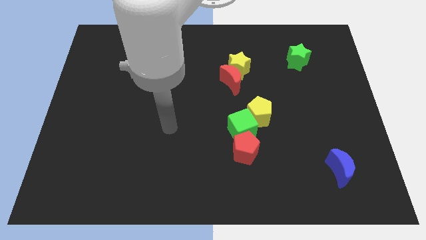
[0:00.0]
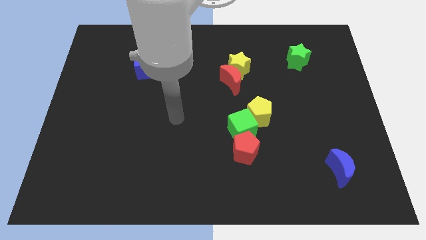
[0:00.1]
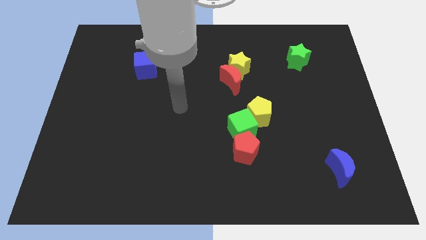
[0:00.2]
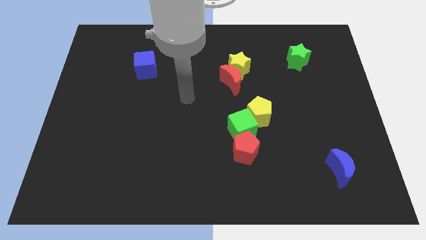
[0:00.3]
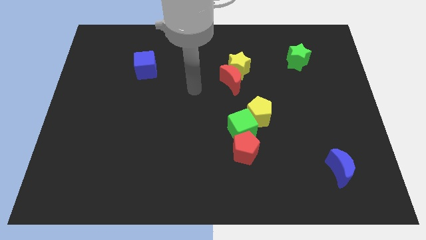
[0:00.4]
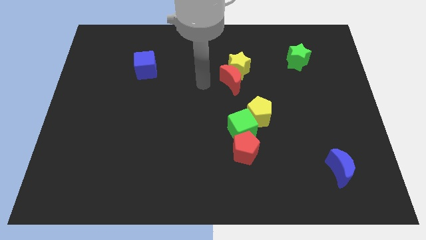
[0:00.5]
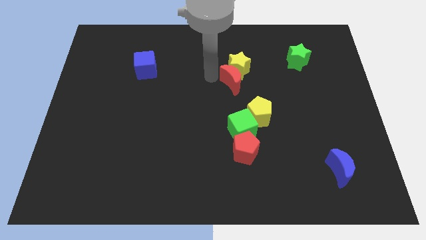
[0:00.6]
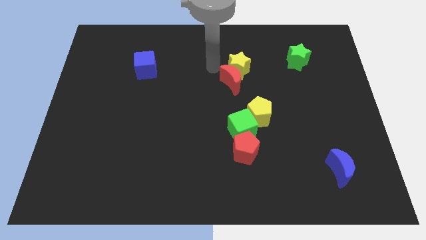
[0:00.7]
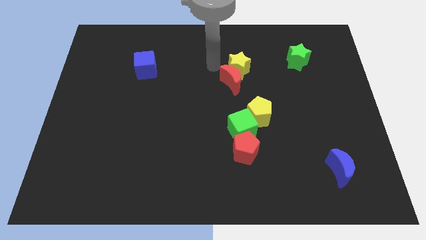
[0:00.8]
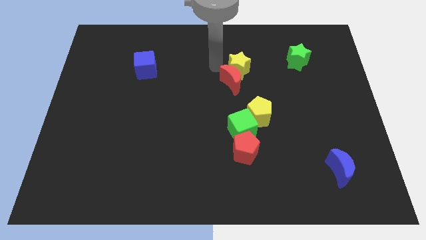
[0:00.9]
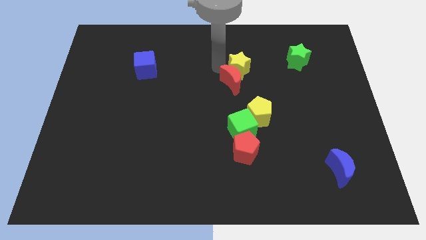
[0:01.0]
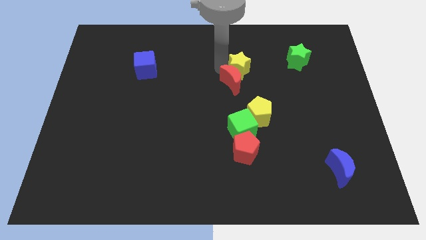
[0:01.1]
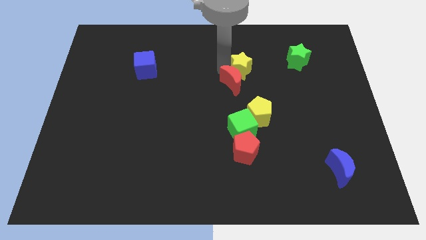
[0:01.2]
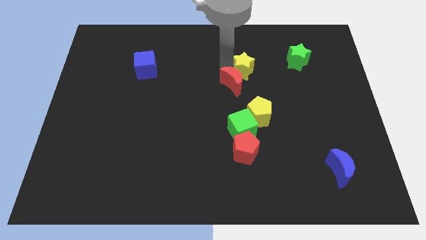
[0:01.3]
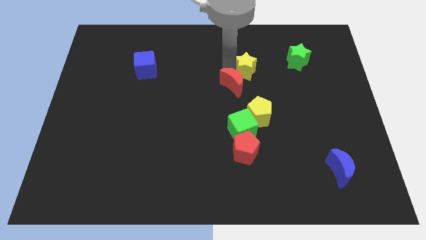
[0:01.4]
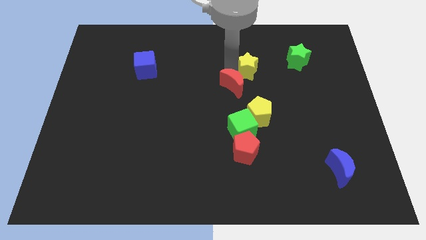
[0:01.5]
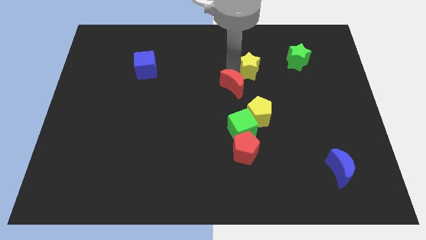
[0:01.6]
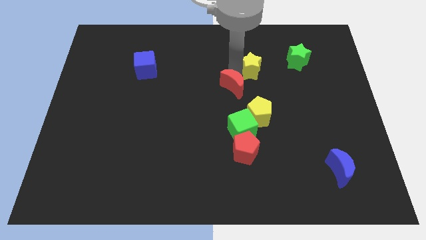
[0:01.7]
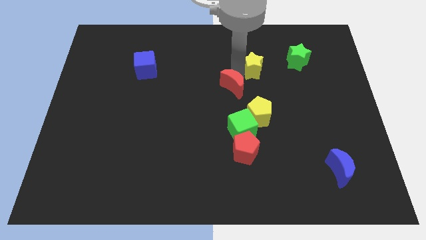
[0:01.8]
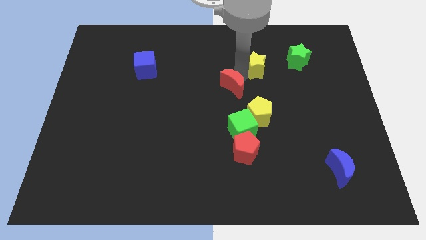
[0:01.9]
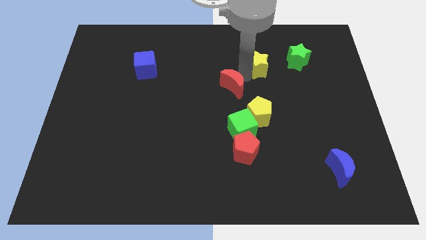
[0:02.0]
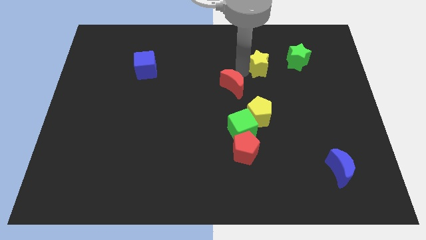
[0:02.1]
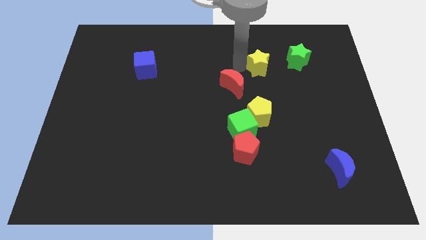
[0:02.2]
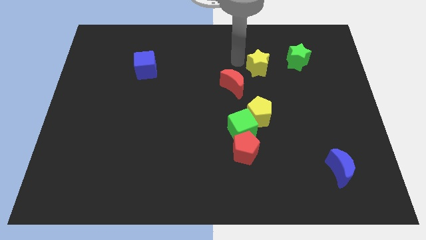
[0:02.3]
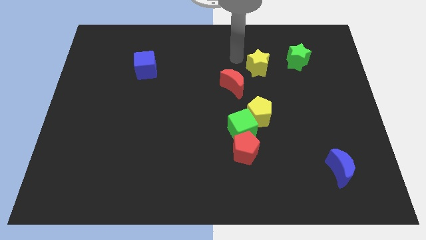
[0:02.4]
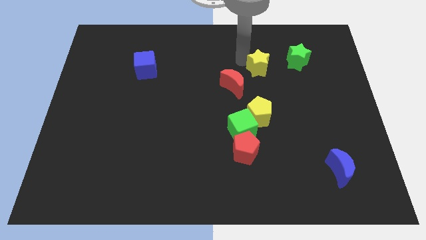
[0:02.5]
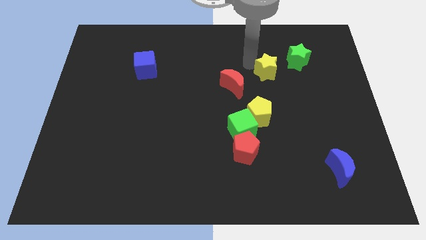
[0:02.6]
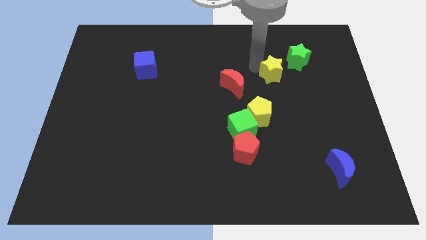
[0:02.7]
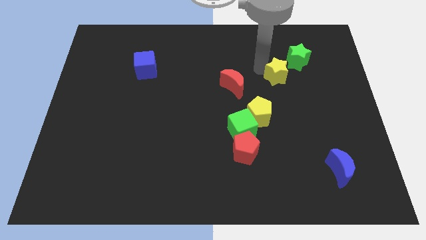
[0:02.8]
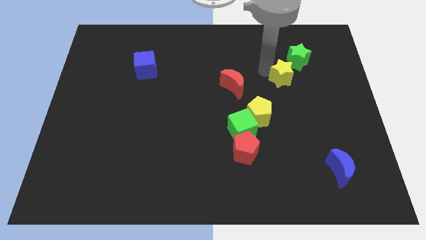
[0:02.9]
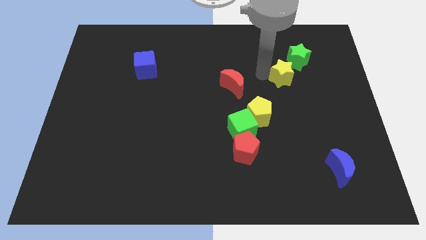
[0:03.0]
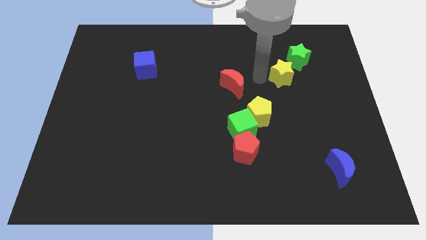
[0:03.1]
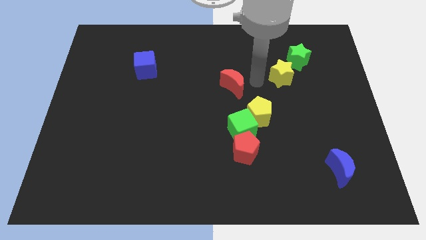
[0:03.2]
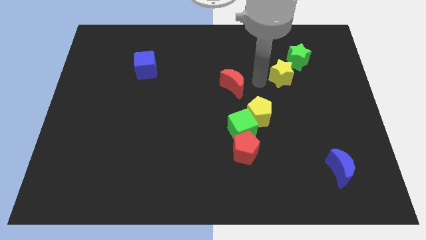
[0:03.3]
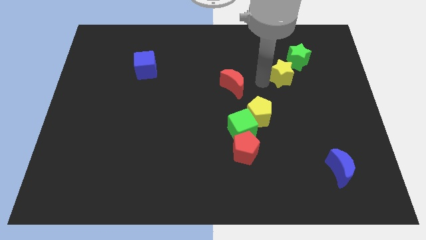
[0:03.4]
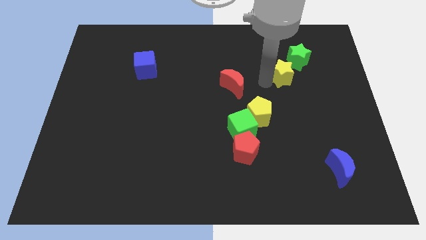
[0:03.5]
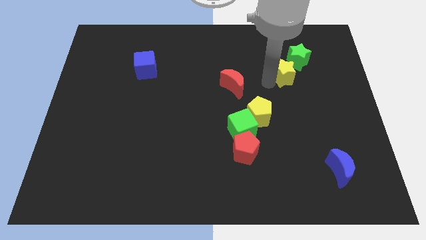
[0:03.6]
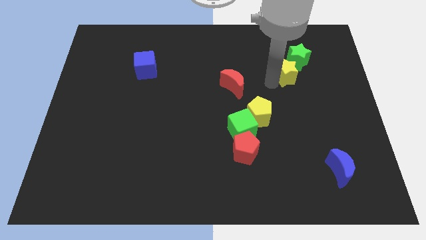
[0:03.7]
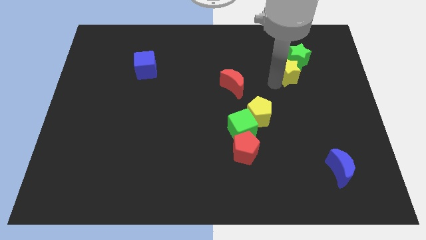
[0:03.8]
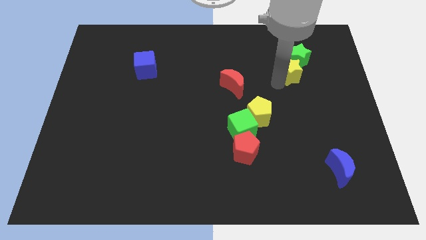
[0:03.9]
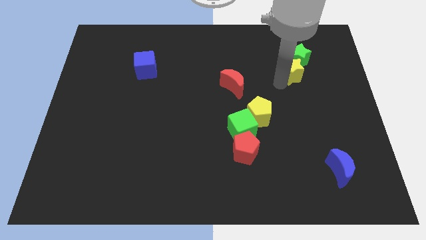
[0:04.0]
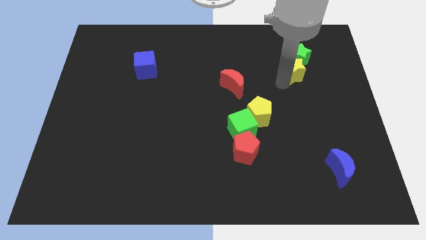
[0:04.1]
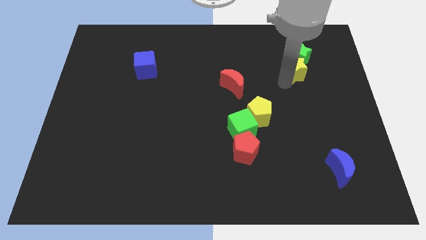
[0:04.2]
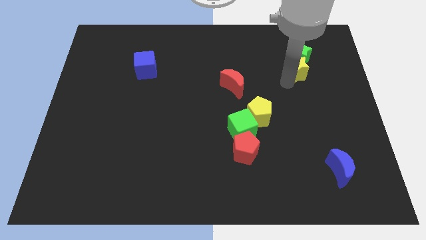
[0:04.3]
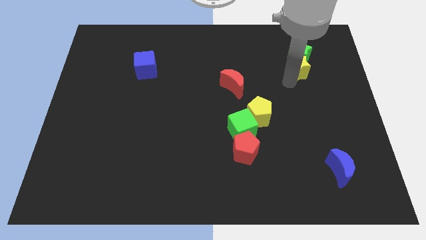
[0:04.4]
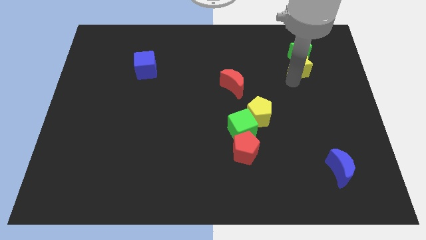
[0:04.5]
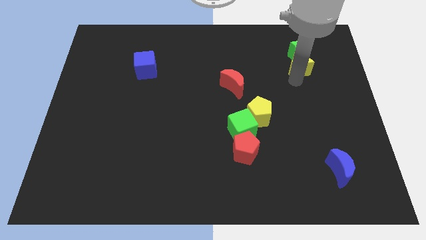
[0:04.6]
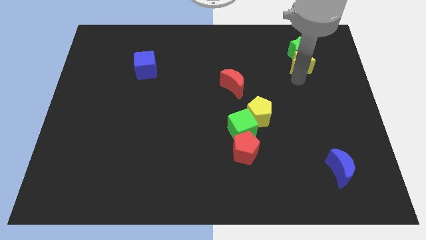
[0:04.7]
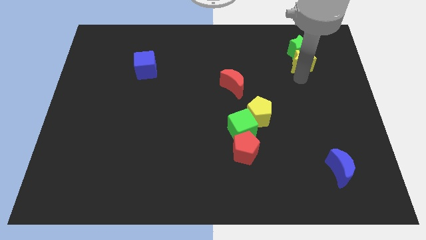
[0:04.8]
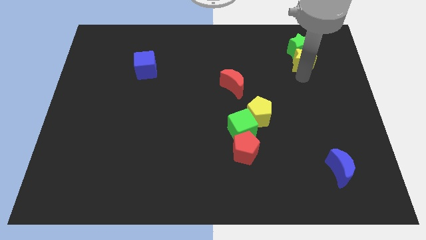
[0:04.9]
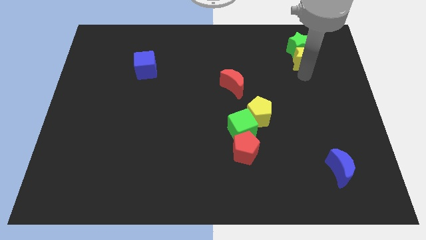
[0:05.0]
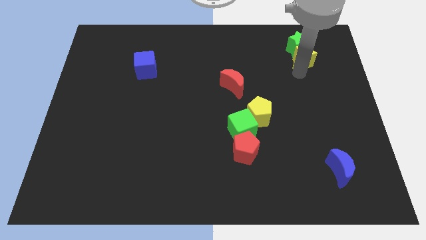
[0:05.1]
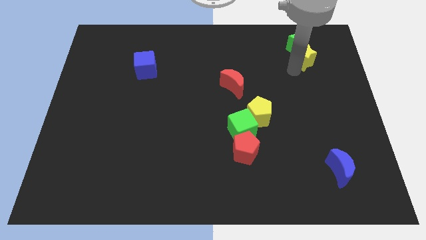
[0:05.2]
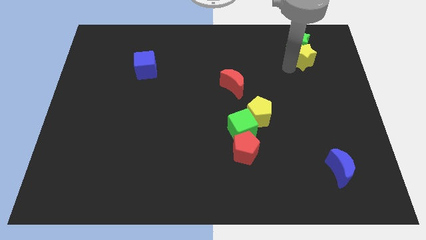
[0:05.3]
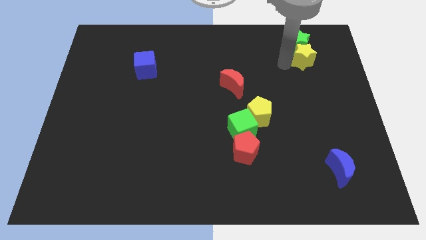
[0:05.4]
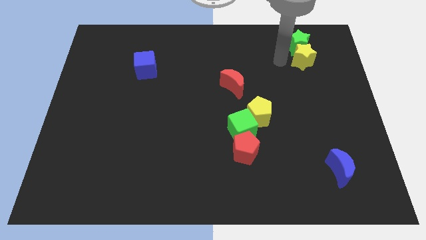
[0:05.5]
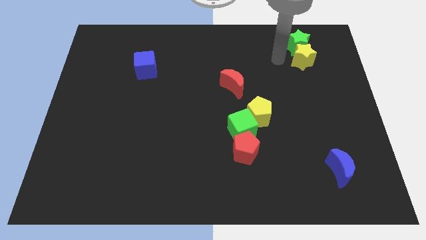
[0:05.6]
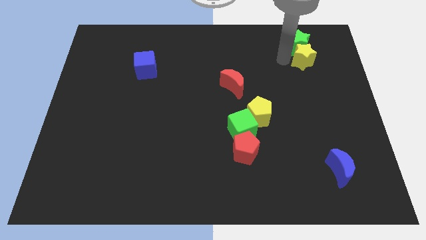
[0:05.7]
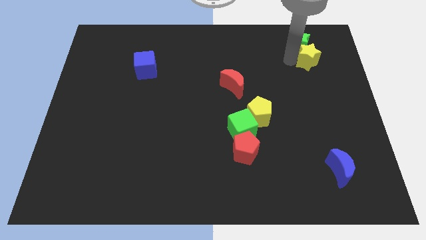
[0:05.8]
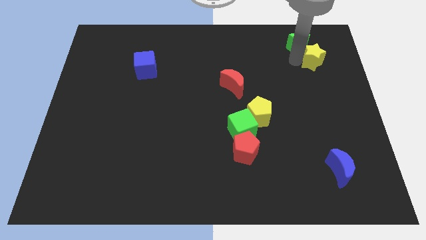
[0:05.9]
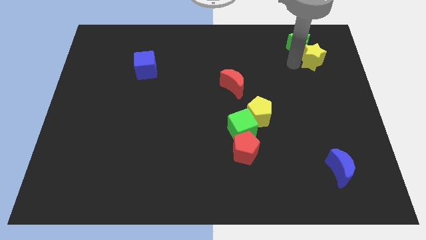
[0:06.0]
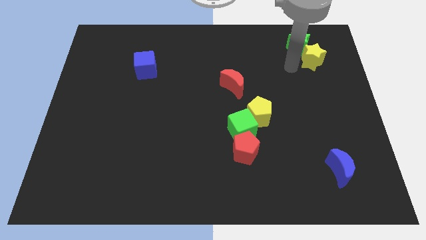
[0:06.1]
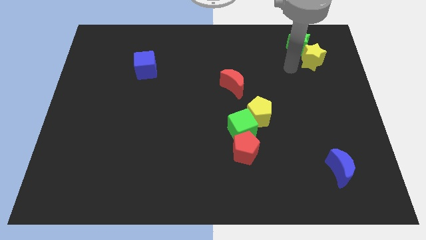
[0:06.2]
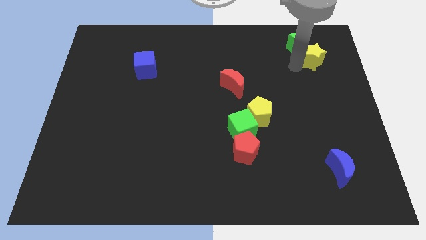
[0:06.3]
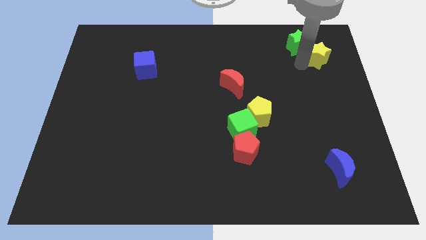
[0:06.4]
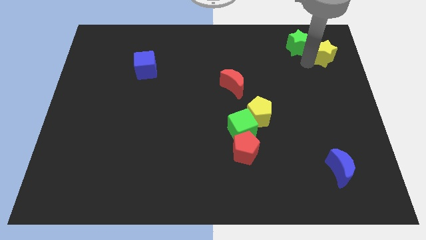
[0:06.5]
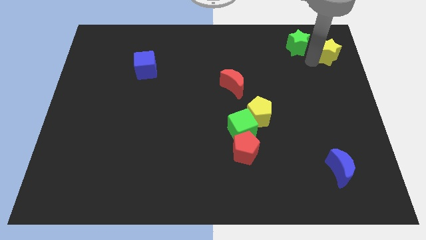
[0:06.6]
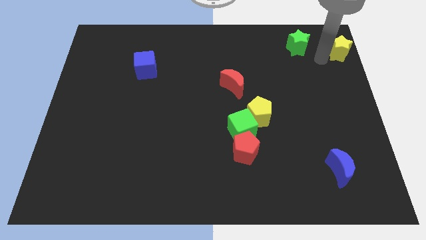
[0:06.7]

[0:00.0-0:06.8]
push the yellow star to the upper right corner
